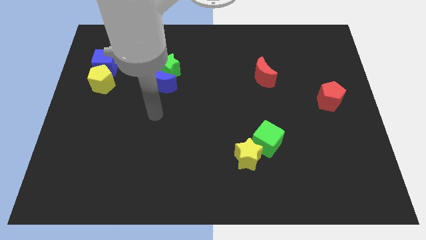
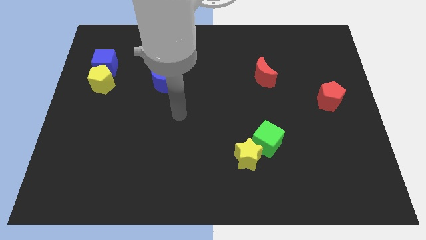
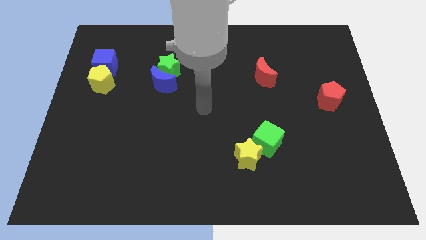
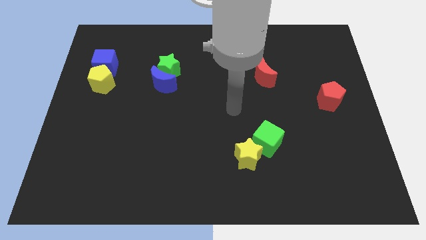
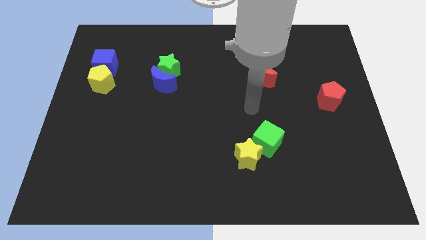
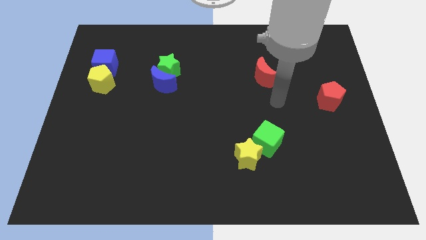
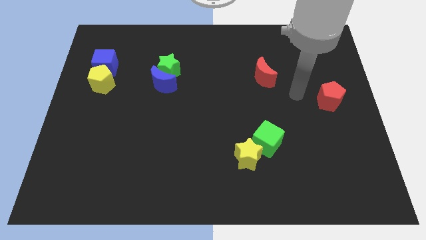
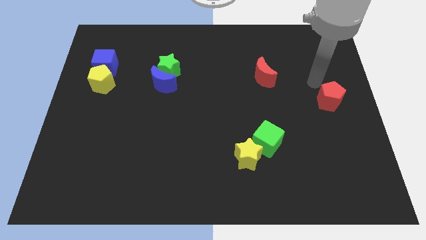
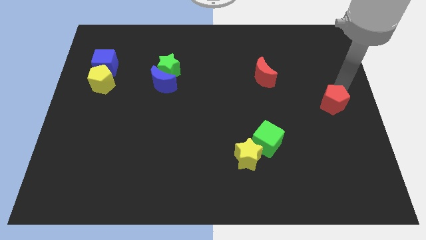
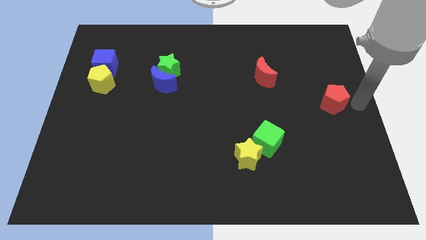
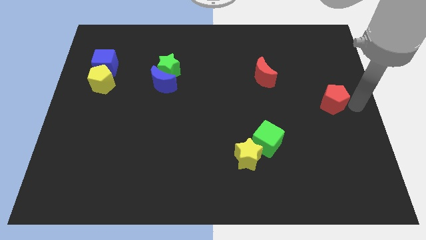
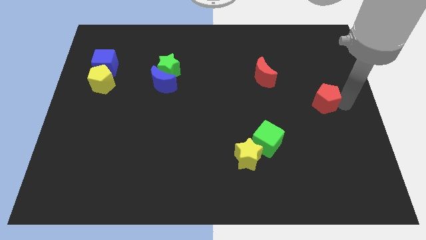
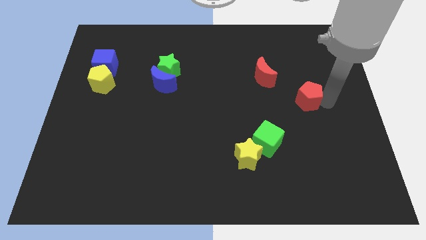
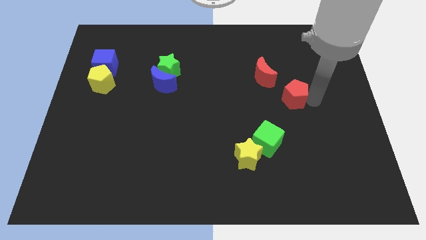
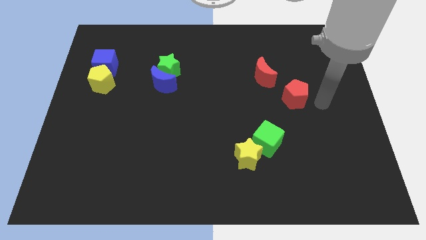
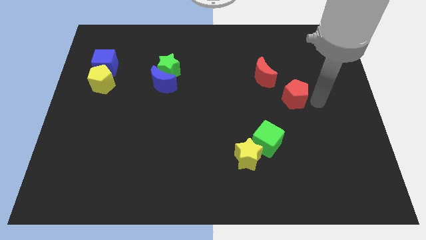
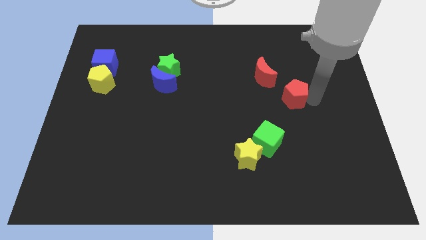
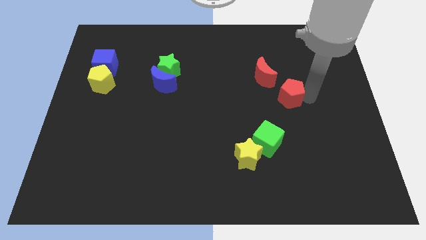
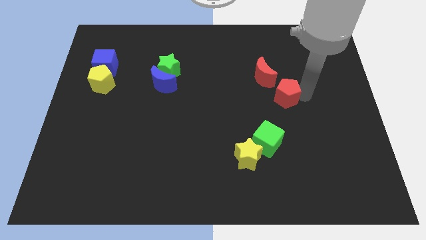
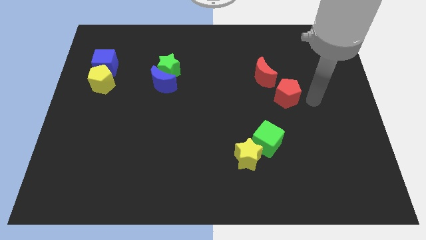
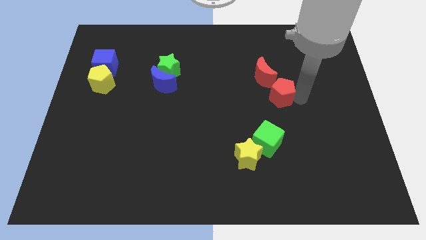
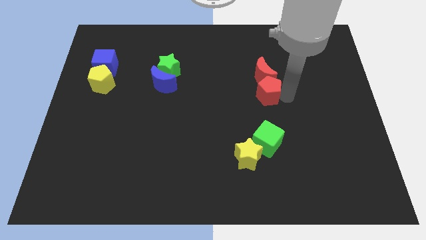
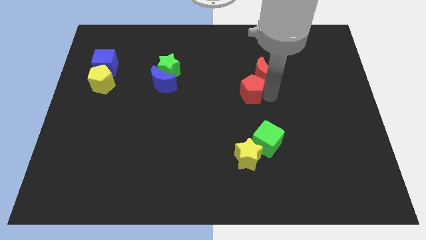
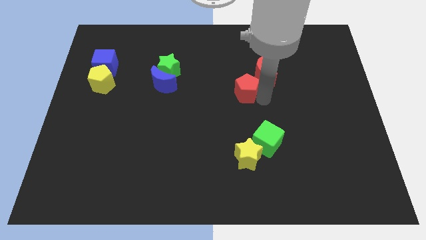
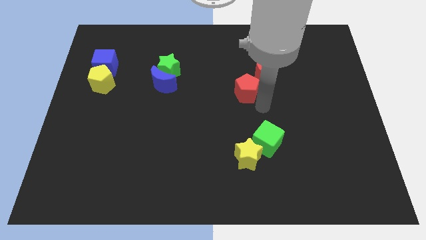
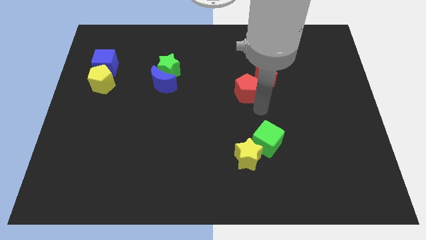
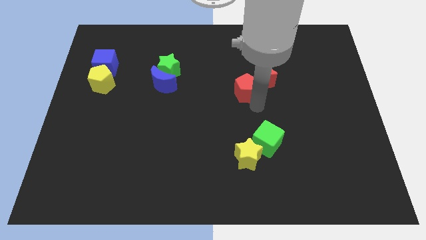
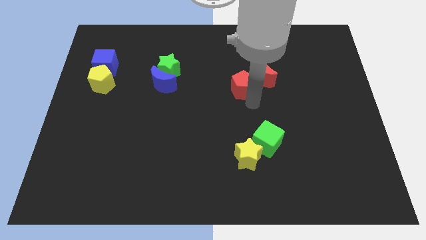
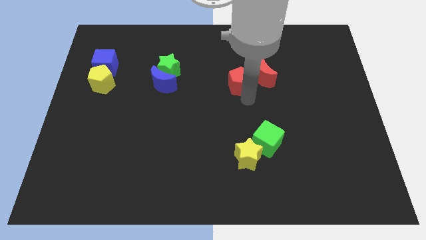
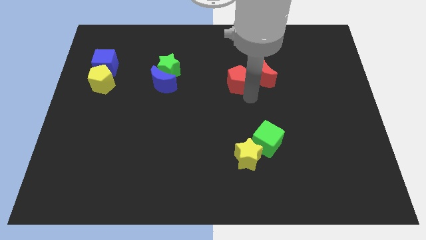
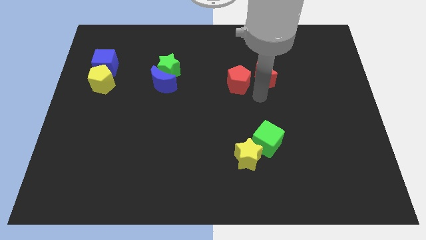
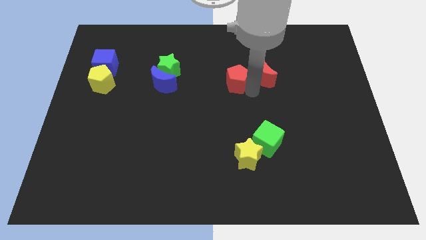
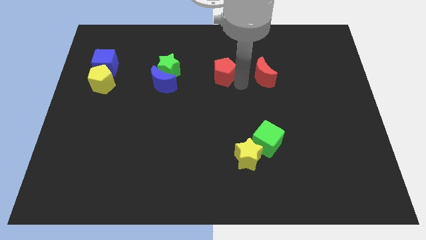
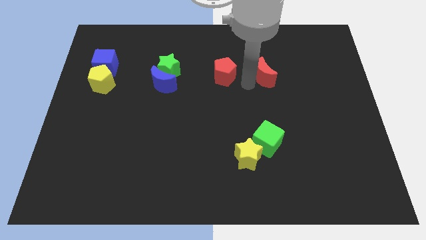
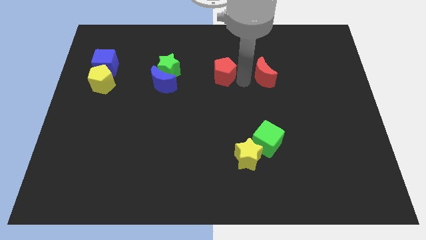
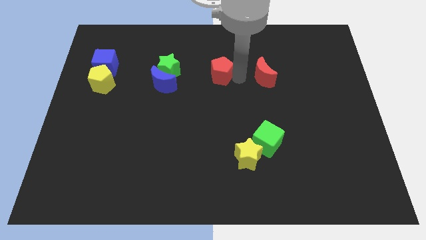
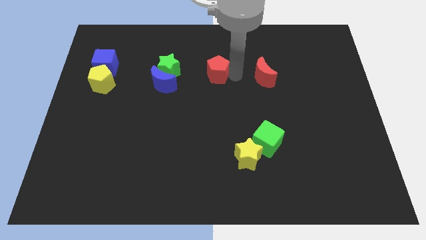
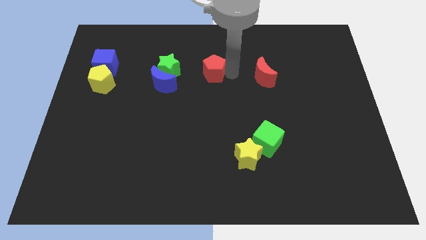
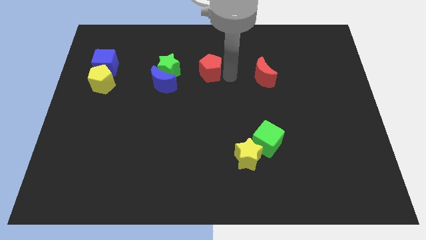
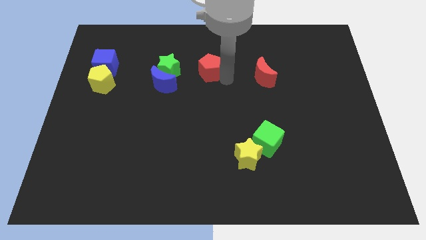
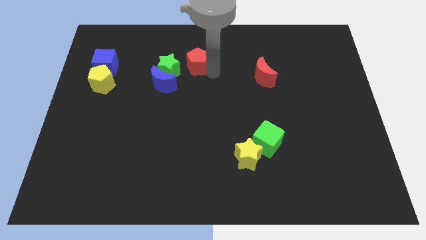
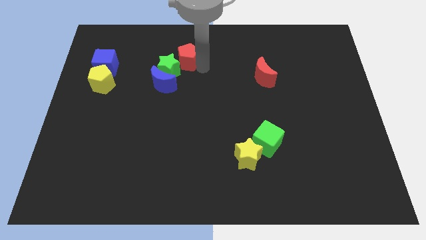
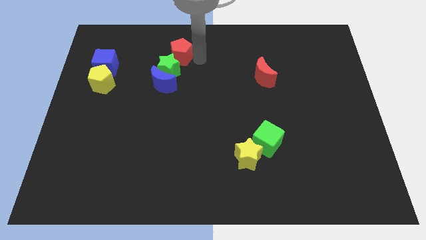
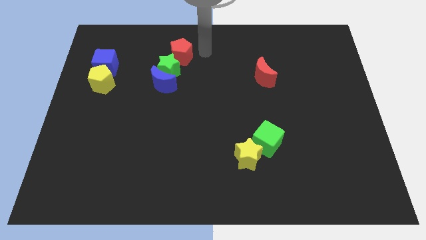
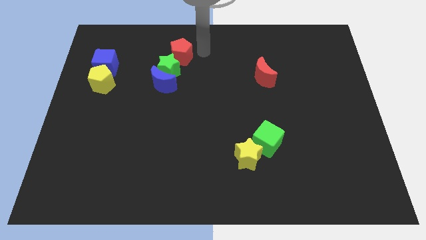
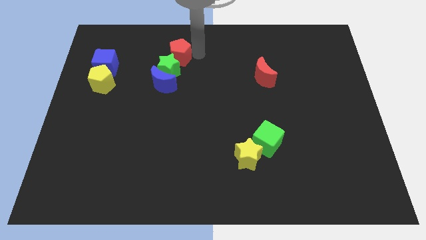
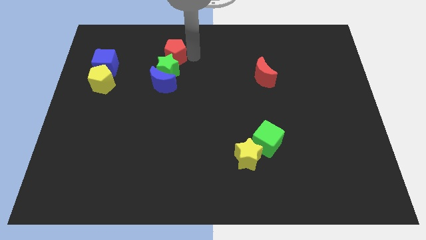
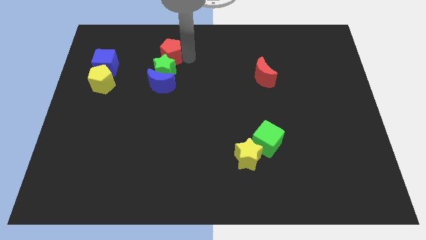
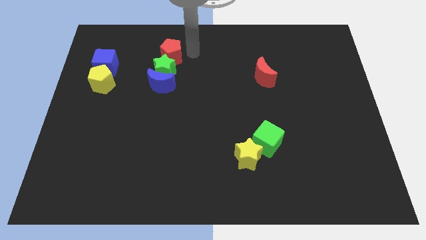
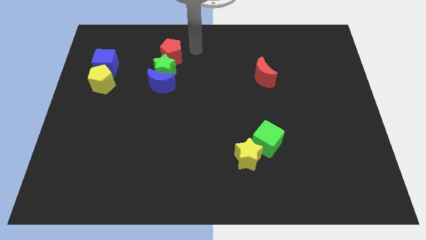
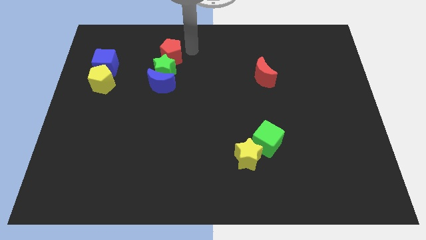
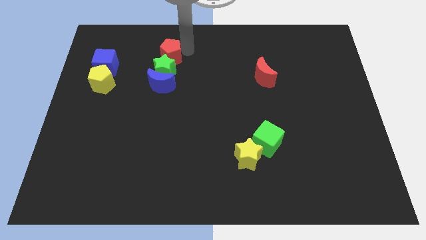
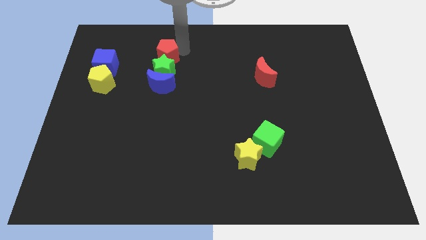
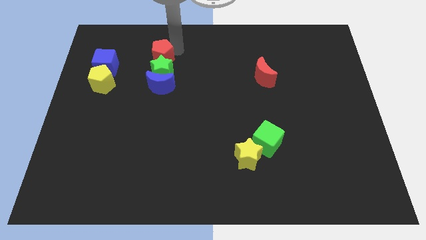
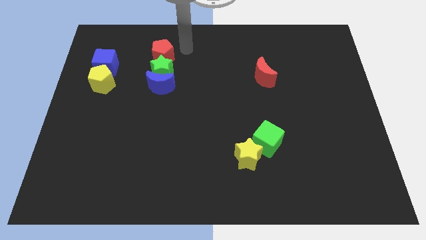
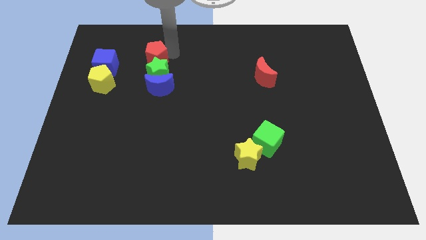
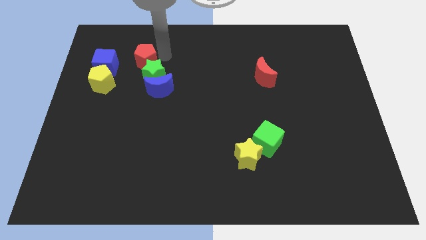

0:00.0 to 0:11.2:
move the red pentagon diagonally up and to the right of the yellow pentagon
